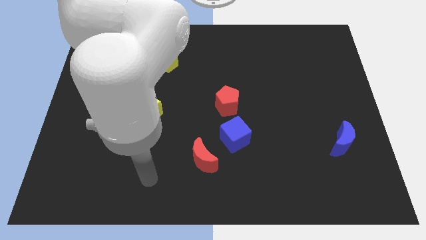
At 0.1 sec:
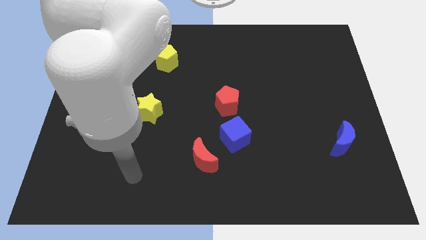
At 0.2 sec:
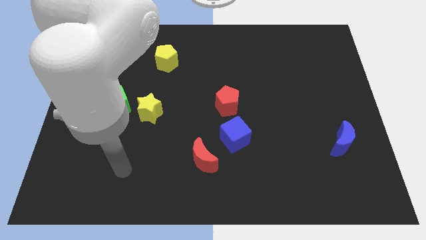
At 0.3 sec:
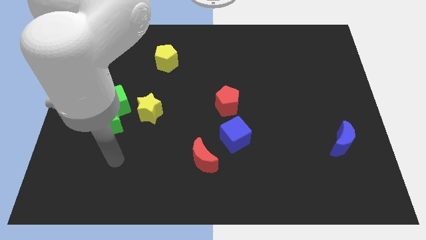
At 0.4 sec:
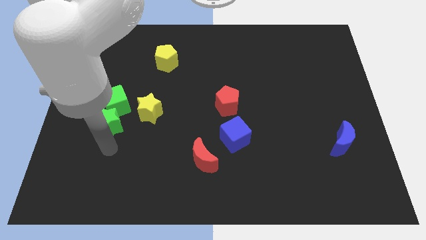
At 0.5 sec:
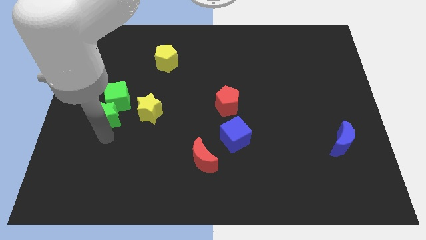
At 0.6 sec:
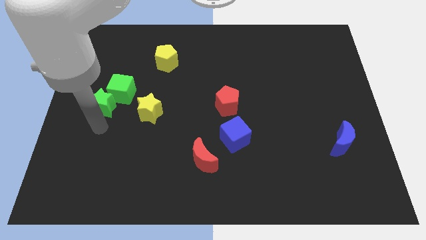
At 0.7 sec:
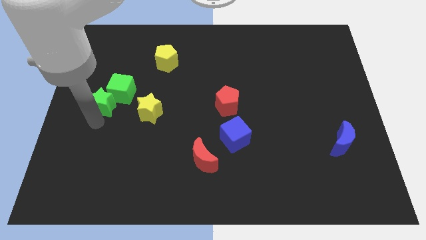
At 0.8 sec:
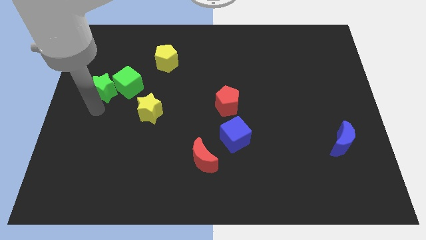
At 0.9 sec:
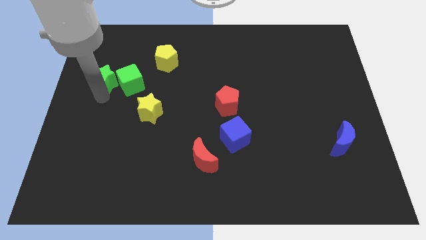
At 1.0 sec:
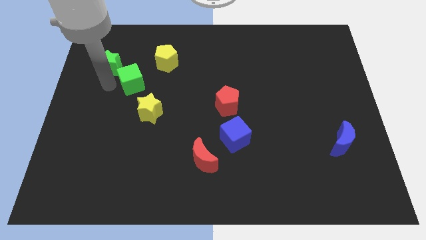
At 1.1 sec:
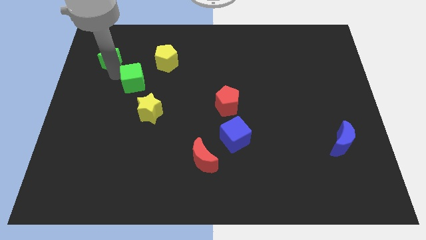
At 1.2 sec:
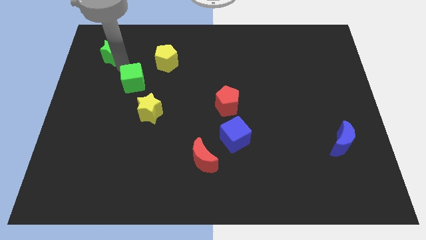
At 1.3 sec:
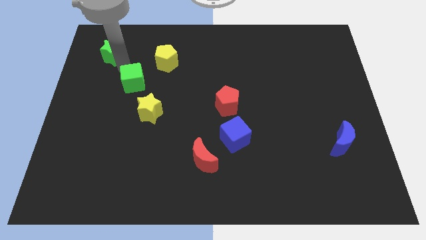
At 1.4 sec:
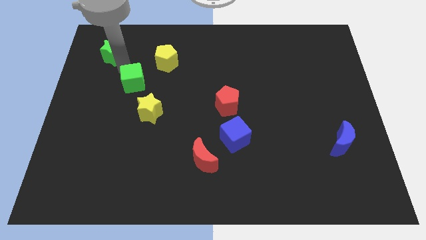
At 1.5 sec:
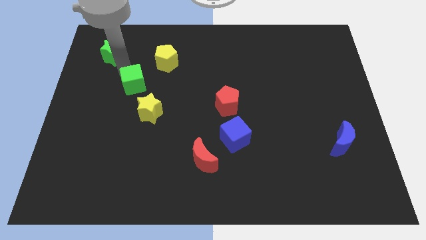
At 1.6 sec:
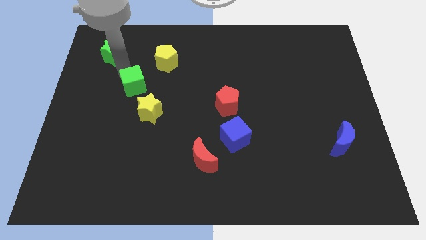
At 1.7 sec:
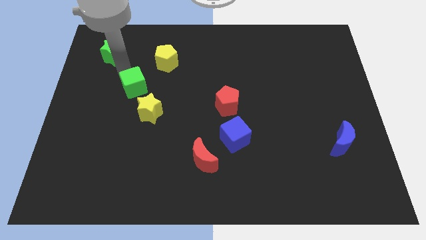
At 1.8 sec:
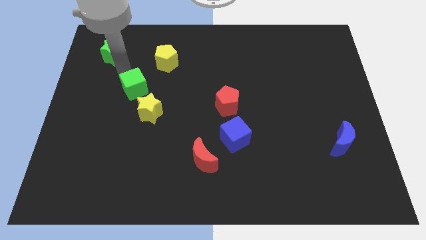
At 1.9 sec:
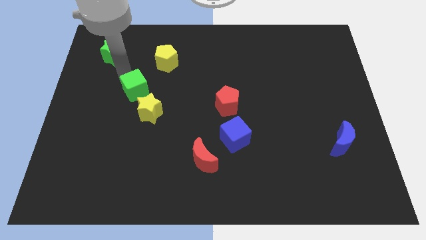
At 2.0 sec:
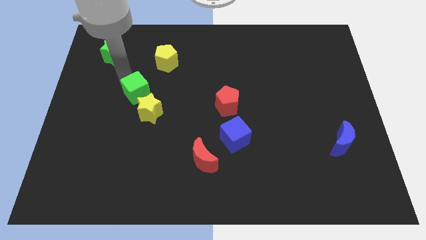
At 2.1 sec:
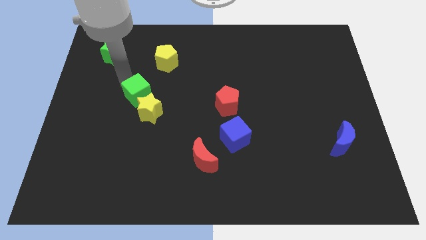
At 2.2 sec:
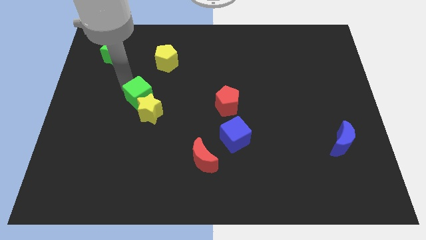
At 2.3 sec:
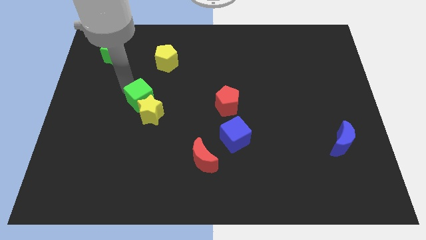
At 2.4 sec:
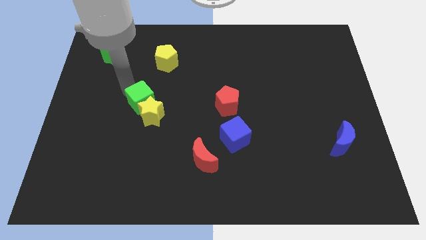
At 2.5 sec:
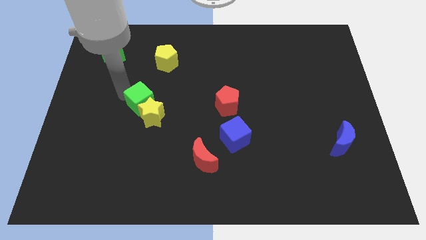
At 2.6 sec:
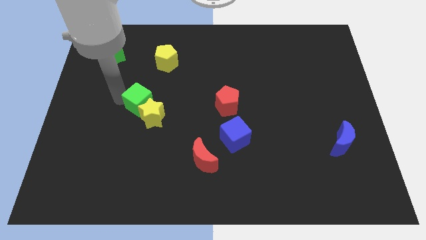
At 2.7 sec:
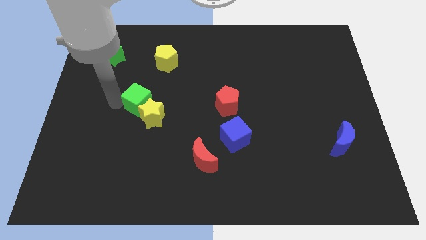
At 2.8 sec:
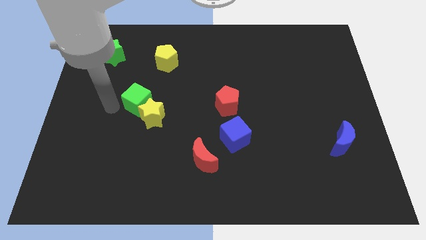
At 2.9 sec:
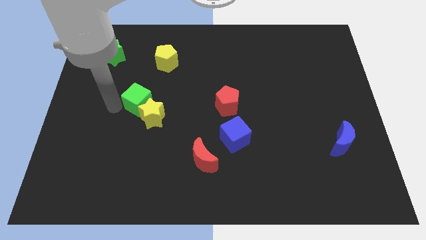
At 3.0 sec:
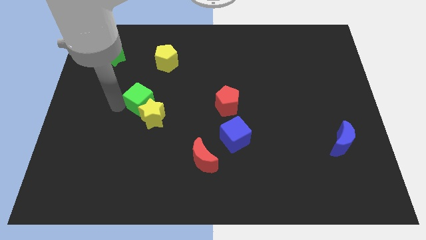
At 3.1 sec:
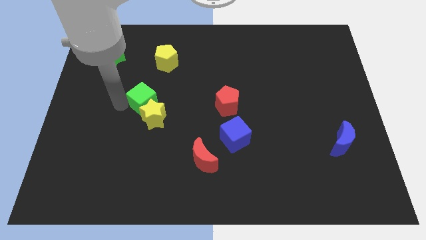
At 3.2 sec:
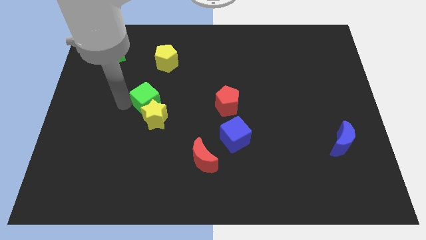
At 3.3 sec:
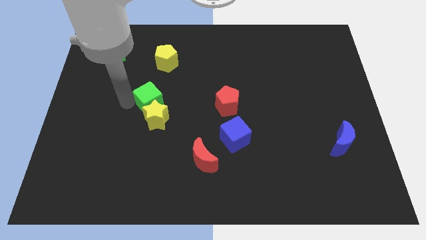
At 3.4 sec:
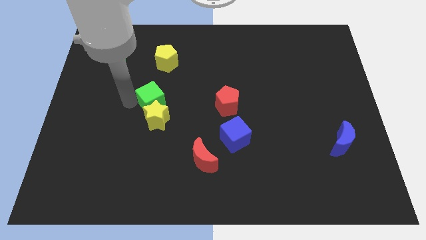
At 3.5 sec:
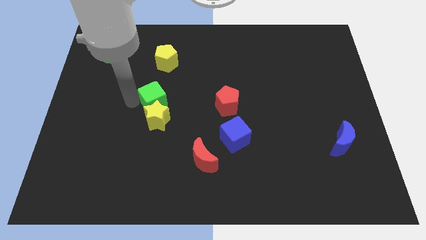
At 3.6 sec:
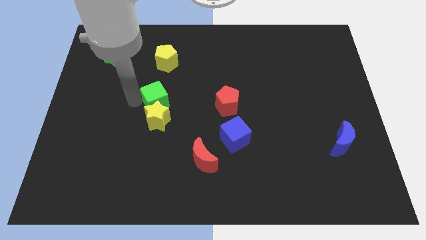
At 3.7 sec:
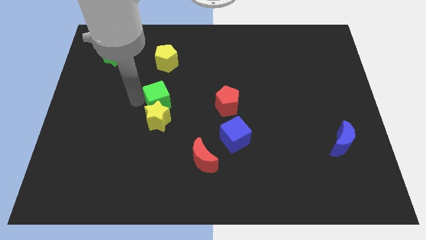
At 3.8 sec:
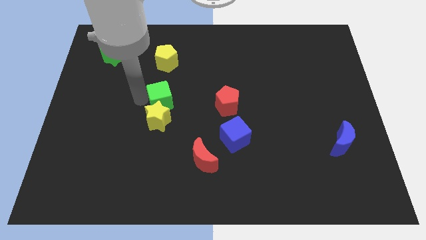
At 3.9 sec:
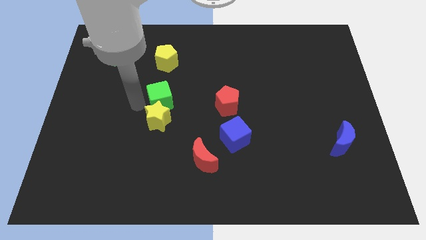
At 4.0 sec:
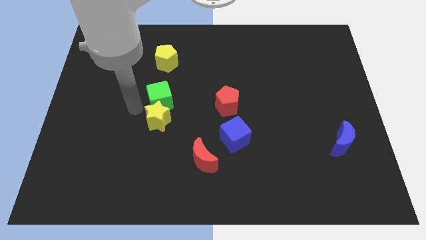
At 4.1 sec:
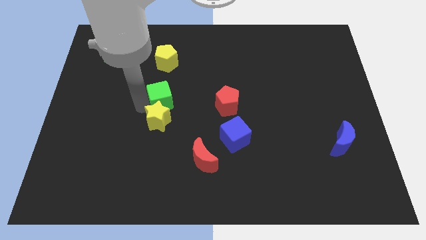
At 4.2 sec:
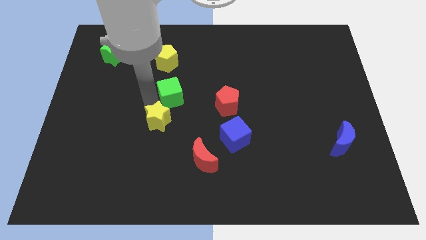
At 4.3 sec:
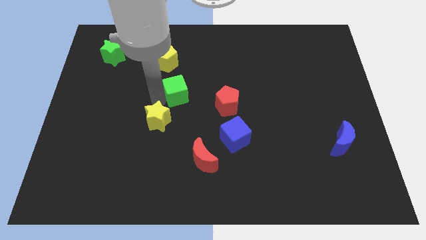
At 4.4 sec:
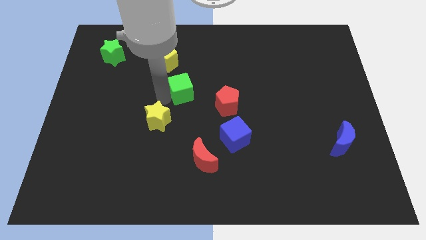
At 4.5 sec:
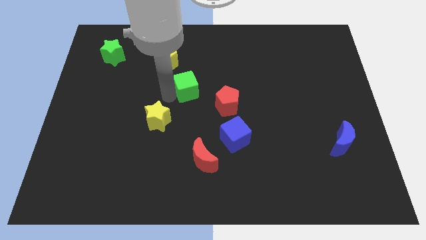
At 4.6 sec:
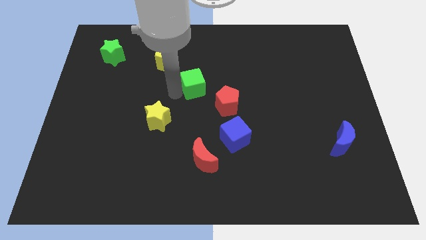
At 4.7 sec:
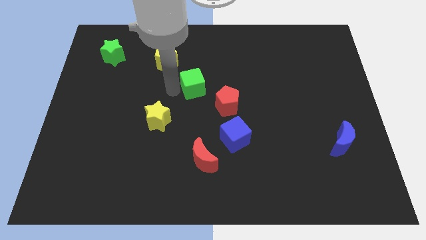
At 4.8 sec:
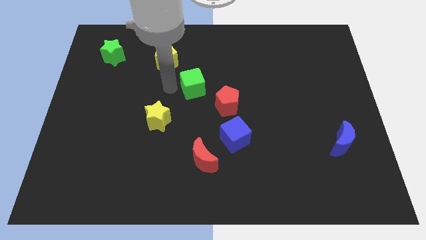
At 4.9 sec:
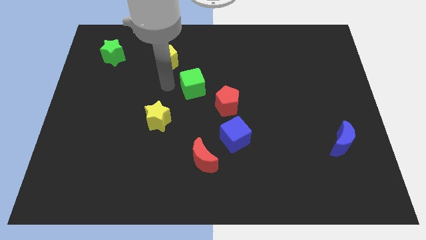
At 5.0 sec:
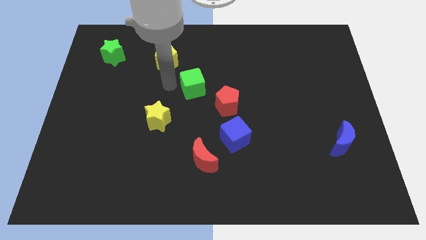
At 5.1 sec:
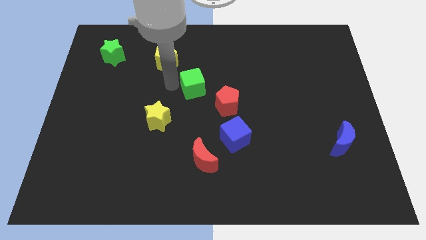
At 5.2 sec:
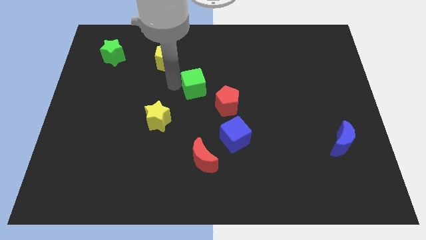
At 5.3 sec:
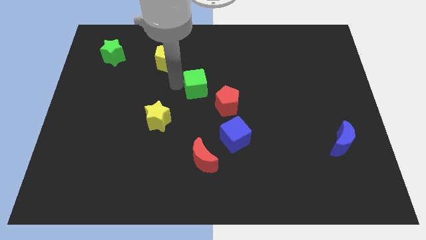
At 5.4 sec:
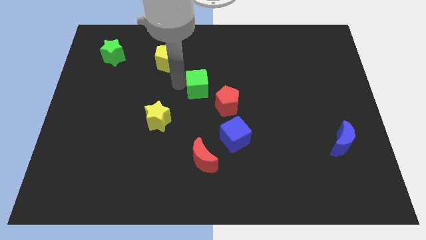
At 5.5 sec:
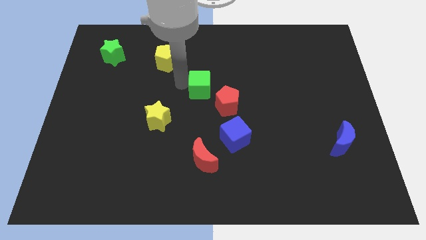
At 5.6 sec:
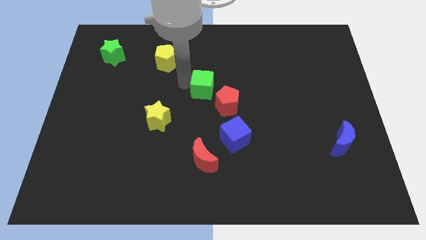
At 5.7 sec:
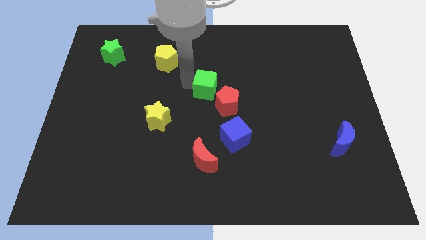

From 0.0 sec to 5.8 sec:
move the green cube to the right

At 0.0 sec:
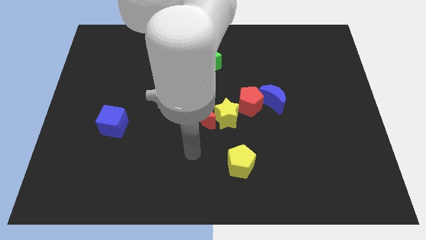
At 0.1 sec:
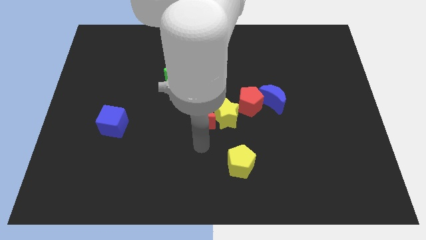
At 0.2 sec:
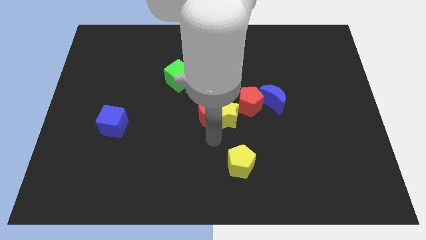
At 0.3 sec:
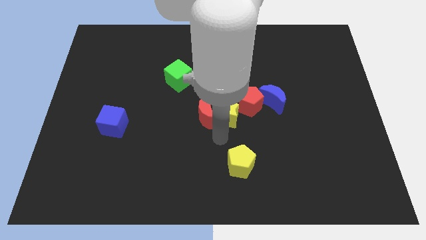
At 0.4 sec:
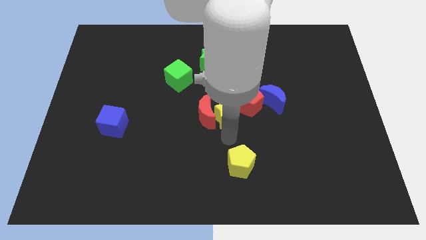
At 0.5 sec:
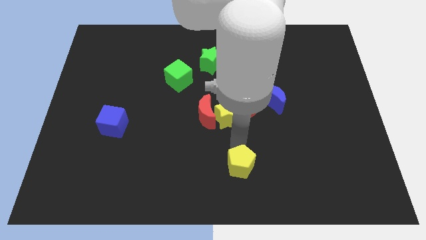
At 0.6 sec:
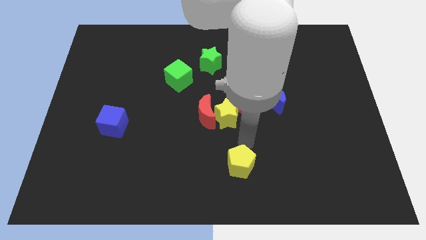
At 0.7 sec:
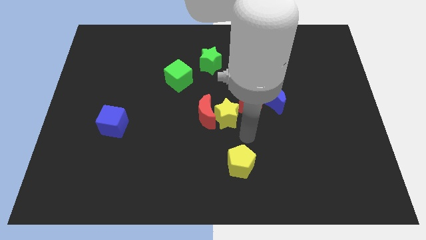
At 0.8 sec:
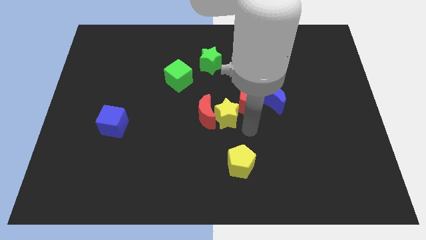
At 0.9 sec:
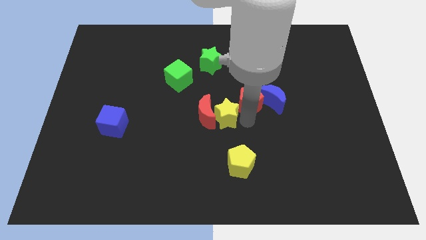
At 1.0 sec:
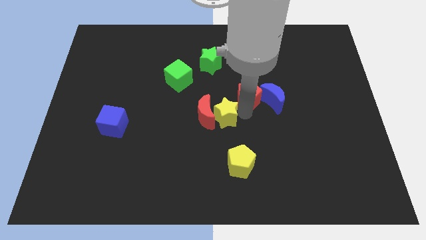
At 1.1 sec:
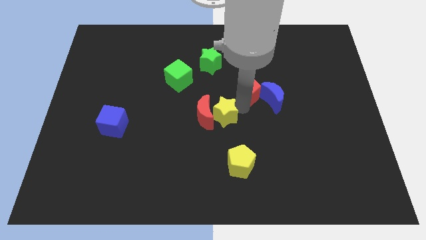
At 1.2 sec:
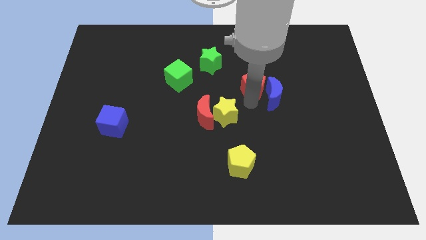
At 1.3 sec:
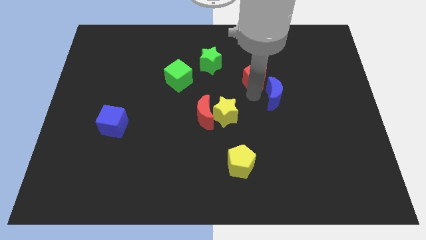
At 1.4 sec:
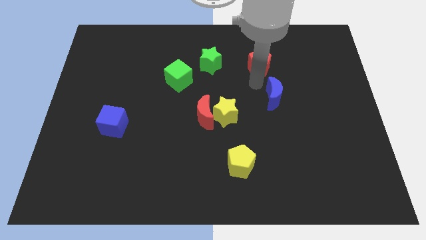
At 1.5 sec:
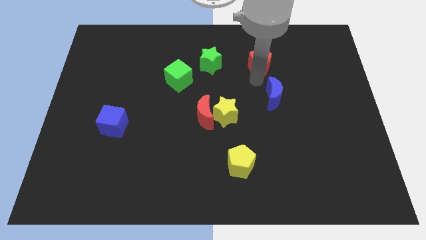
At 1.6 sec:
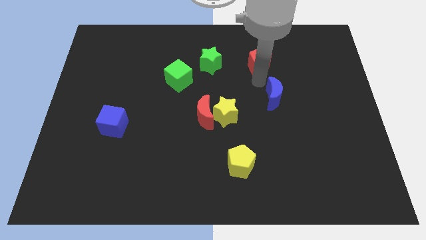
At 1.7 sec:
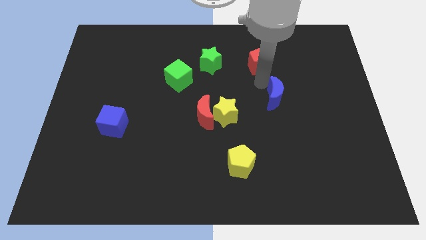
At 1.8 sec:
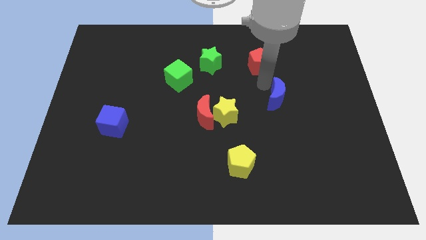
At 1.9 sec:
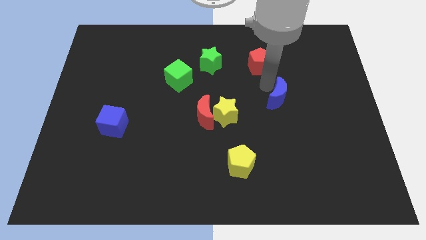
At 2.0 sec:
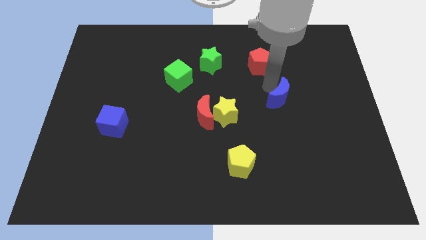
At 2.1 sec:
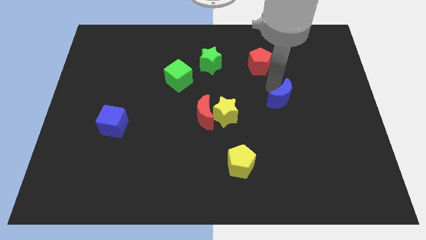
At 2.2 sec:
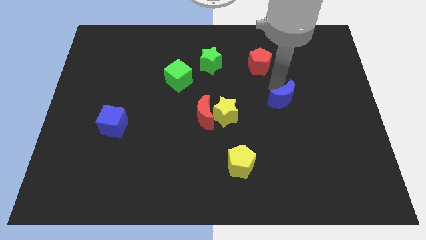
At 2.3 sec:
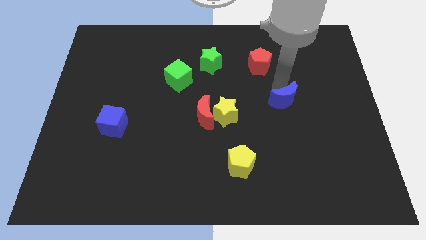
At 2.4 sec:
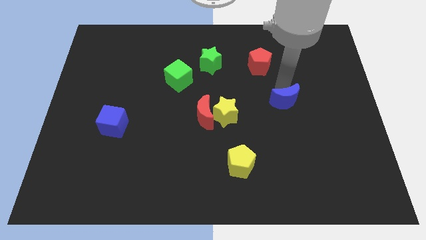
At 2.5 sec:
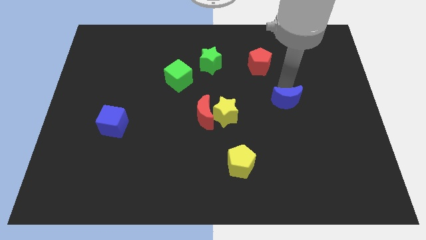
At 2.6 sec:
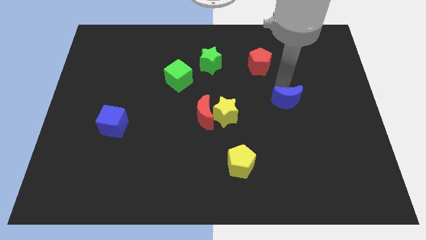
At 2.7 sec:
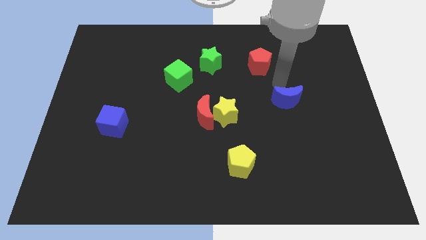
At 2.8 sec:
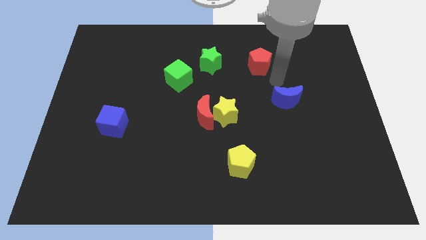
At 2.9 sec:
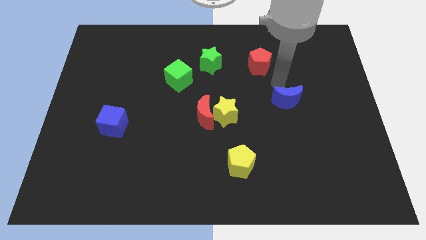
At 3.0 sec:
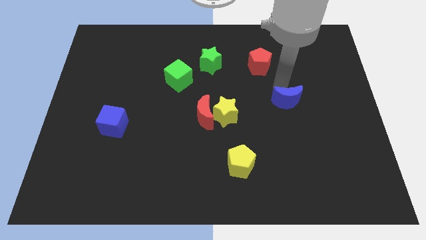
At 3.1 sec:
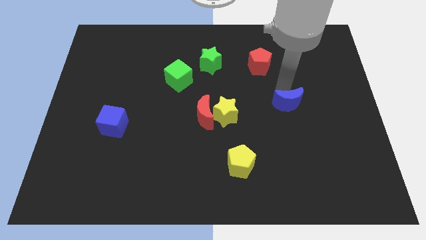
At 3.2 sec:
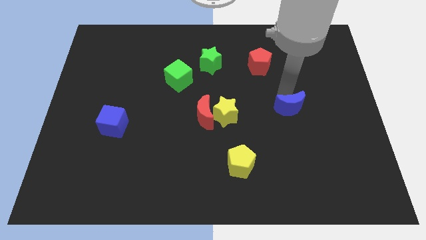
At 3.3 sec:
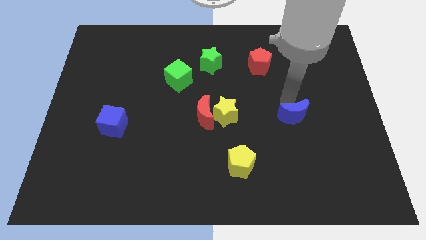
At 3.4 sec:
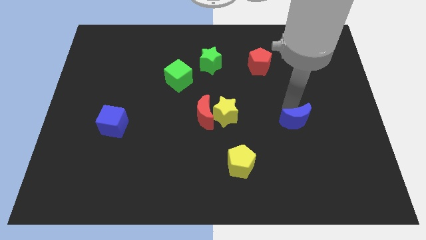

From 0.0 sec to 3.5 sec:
move the blue moon a little down and then to the right
